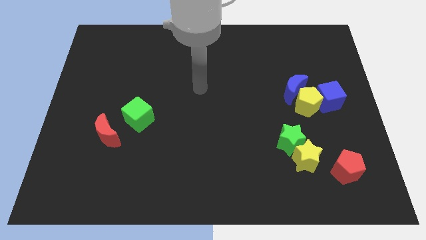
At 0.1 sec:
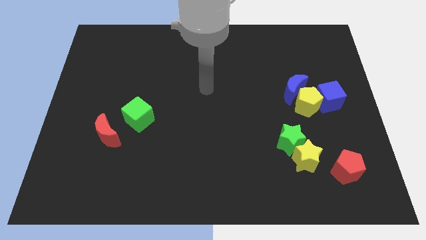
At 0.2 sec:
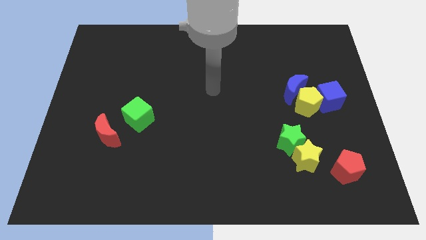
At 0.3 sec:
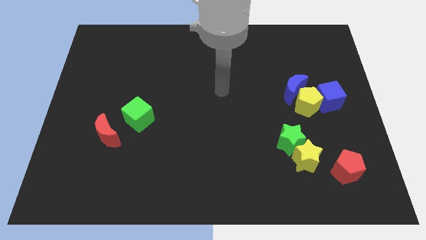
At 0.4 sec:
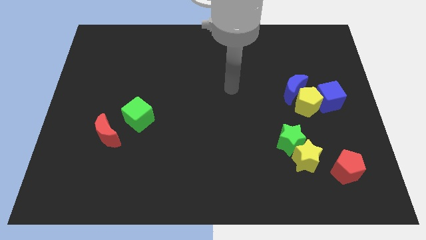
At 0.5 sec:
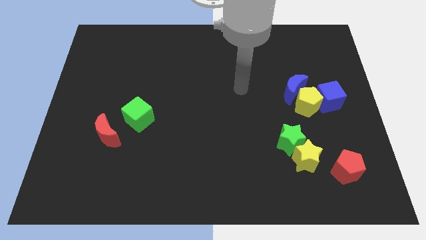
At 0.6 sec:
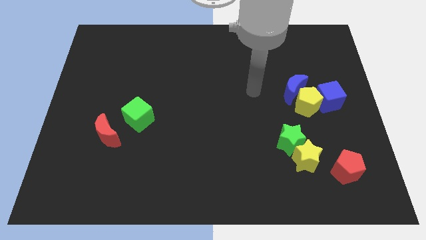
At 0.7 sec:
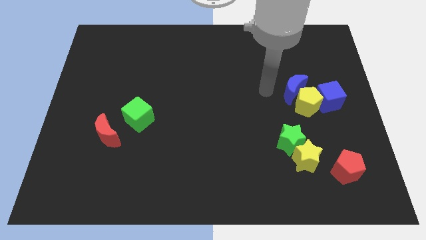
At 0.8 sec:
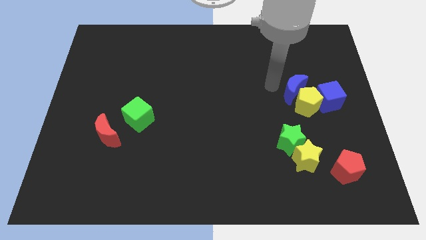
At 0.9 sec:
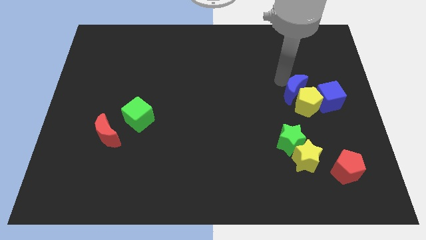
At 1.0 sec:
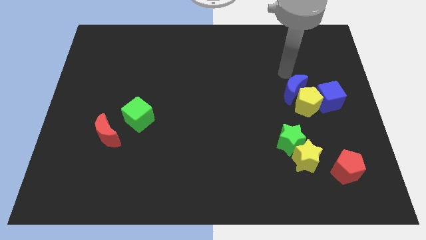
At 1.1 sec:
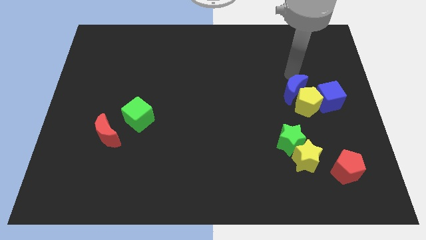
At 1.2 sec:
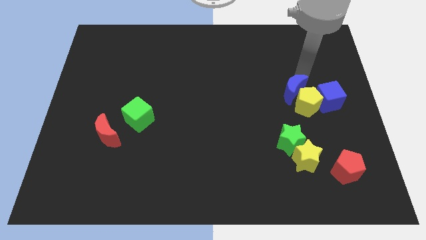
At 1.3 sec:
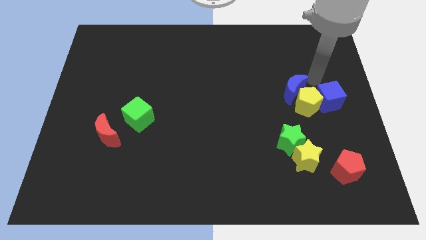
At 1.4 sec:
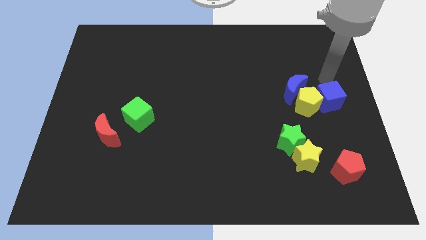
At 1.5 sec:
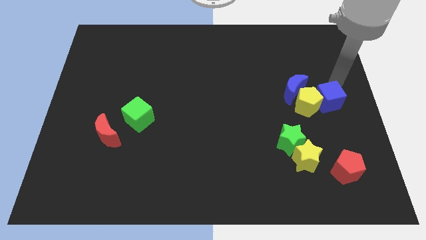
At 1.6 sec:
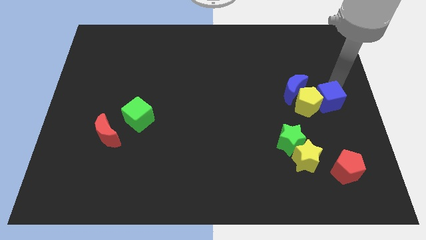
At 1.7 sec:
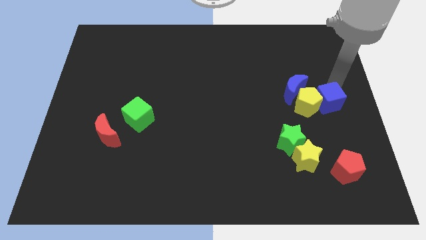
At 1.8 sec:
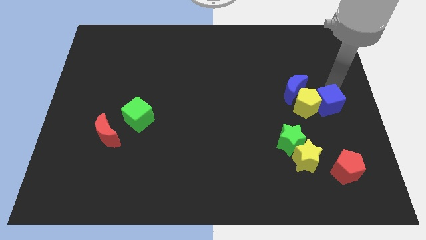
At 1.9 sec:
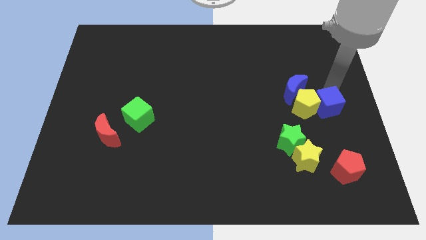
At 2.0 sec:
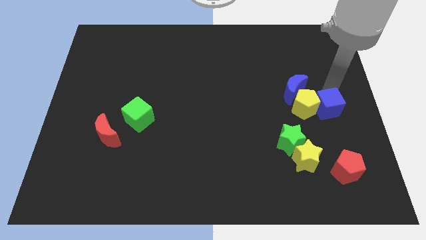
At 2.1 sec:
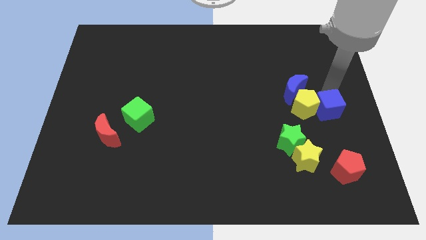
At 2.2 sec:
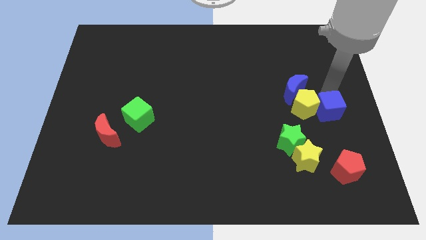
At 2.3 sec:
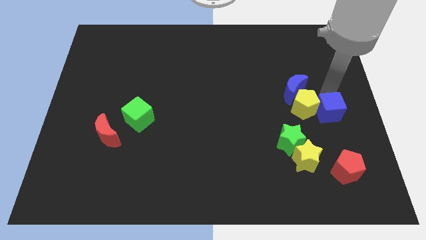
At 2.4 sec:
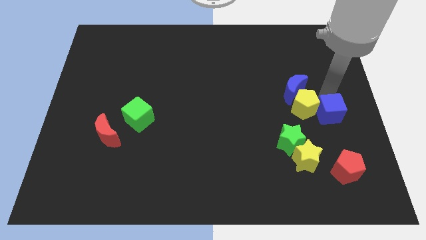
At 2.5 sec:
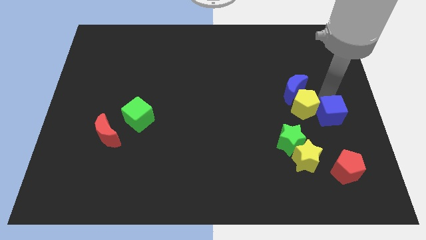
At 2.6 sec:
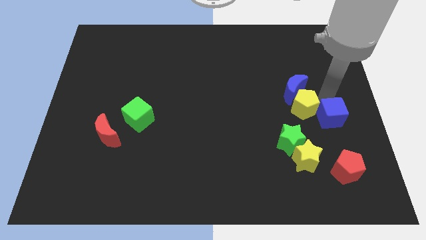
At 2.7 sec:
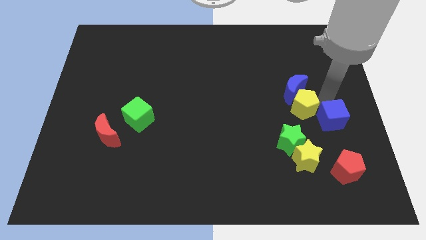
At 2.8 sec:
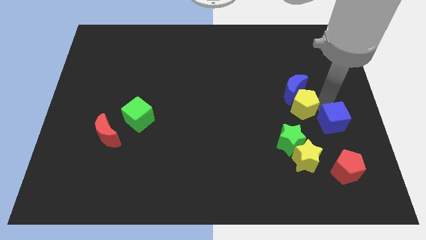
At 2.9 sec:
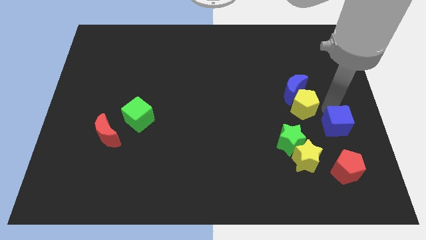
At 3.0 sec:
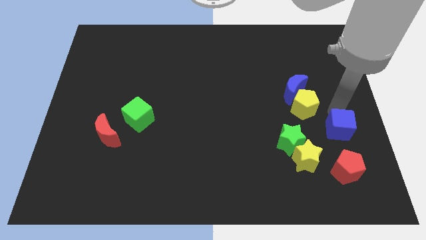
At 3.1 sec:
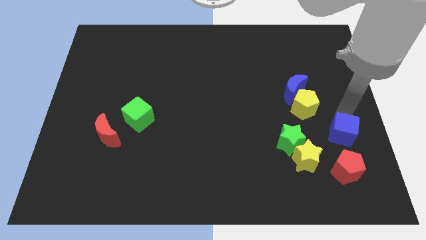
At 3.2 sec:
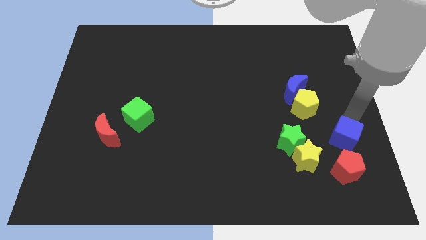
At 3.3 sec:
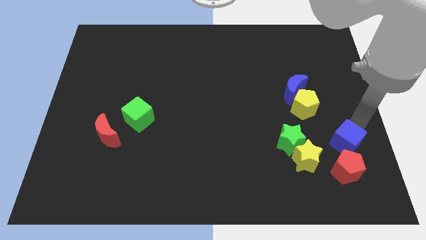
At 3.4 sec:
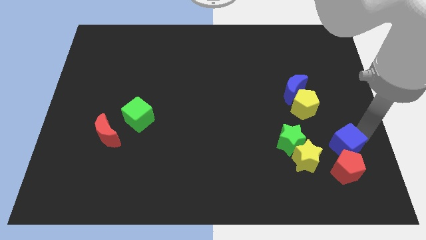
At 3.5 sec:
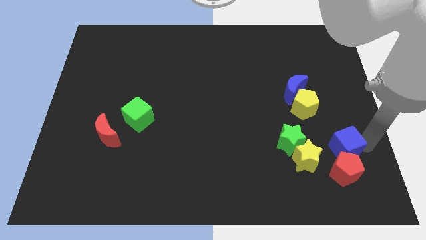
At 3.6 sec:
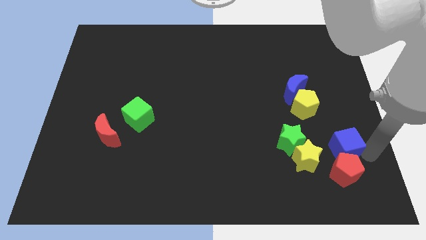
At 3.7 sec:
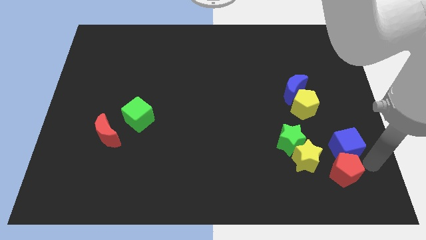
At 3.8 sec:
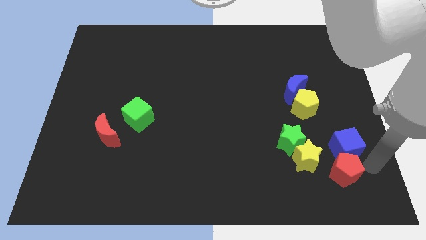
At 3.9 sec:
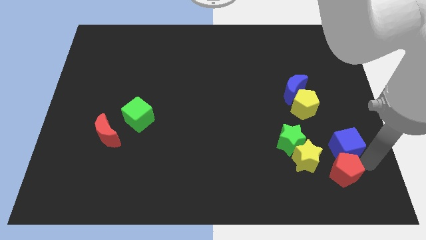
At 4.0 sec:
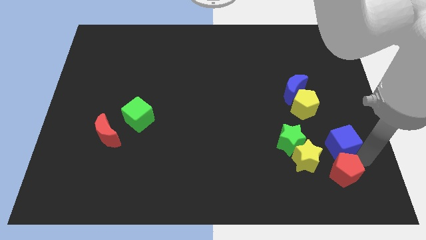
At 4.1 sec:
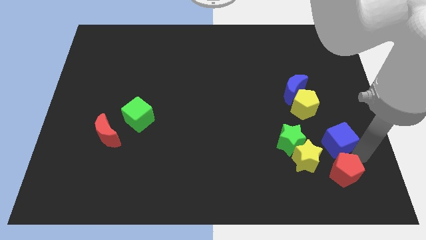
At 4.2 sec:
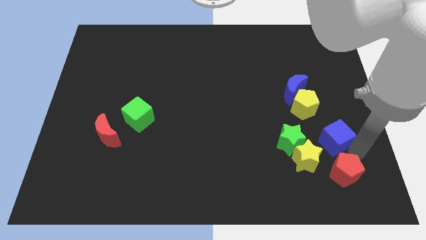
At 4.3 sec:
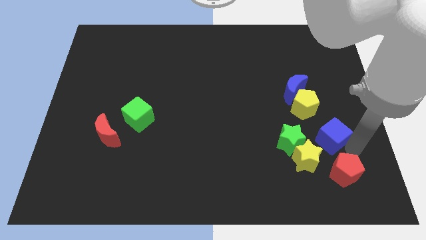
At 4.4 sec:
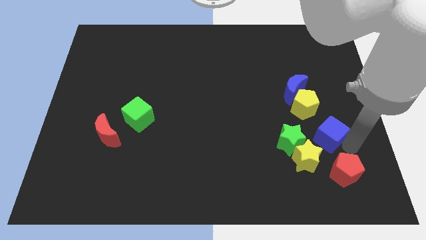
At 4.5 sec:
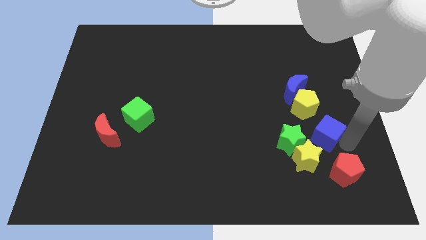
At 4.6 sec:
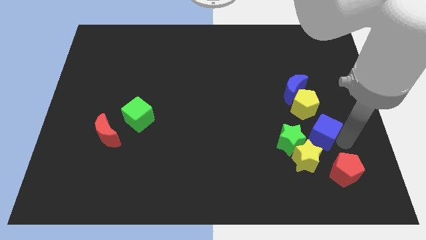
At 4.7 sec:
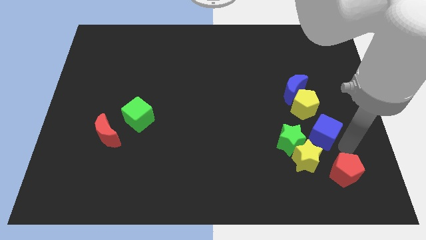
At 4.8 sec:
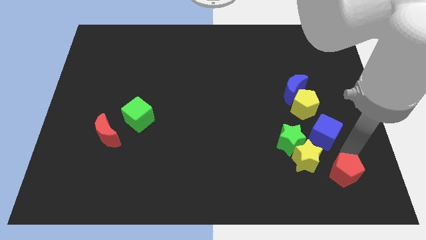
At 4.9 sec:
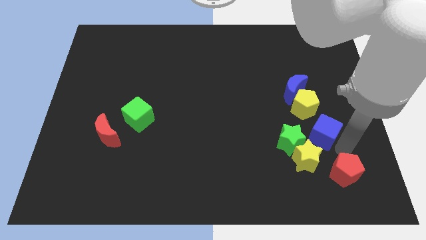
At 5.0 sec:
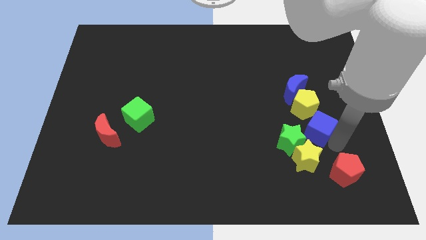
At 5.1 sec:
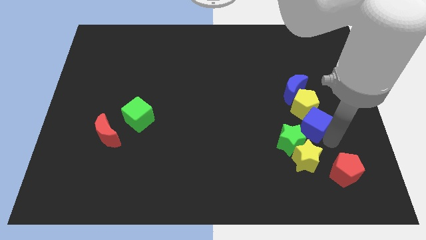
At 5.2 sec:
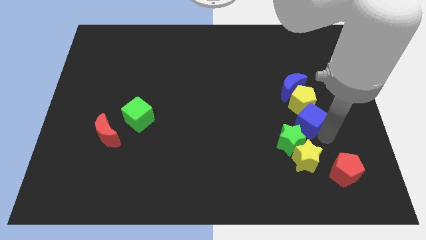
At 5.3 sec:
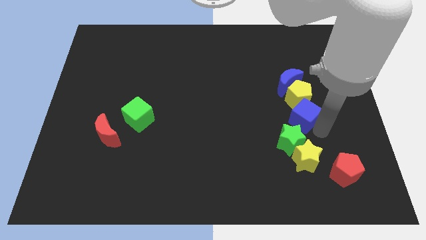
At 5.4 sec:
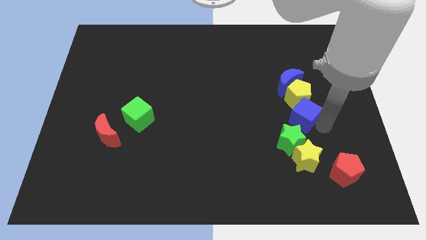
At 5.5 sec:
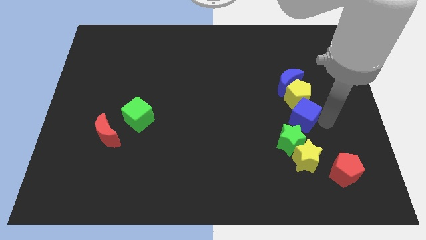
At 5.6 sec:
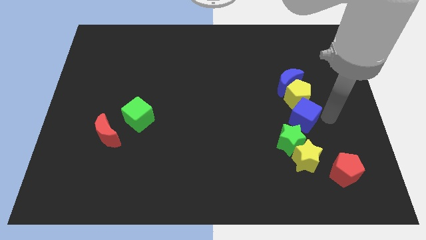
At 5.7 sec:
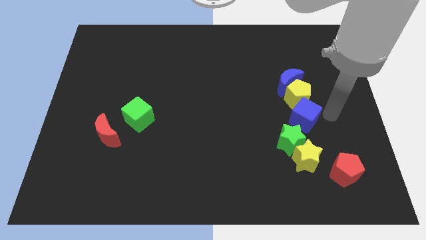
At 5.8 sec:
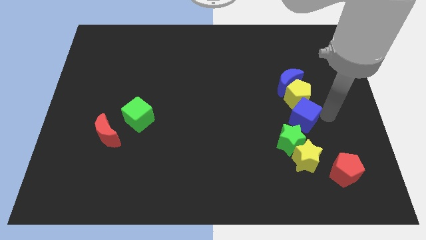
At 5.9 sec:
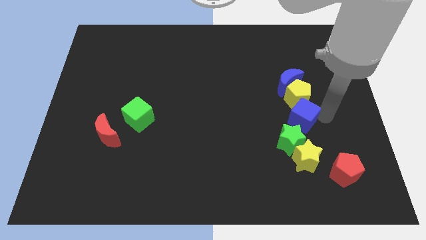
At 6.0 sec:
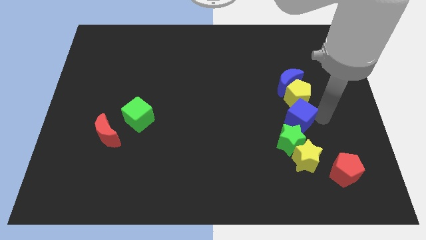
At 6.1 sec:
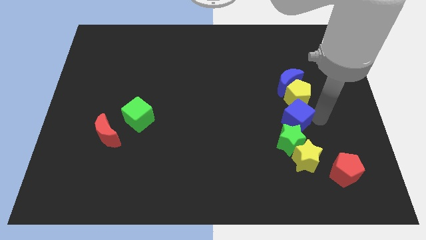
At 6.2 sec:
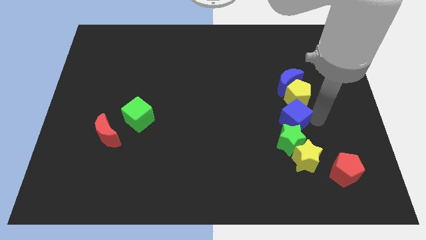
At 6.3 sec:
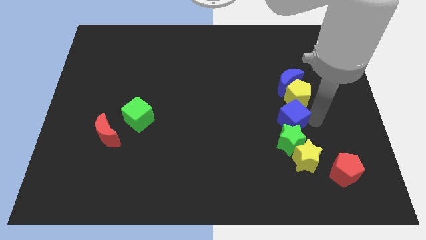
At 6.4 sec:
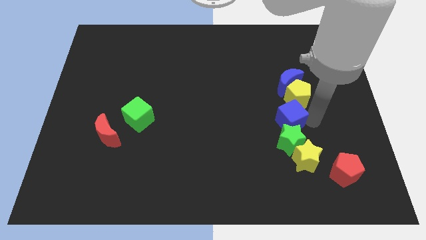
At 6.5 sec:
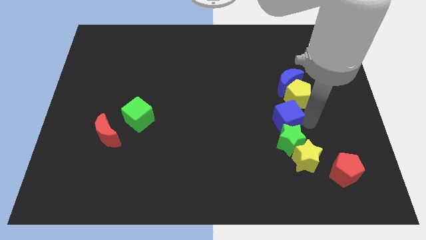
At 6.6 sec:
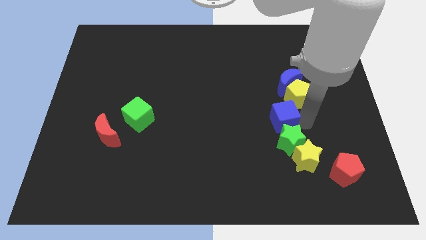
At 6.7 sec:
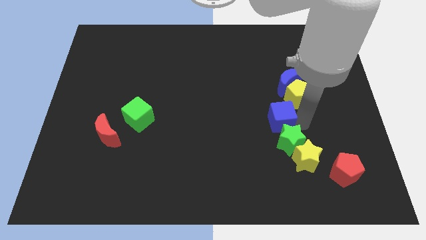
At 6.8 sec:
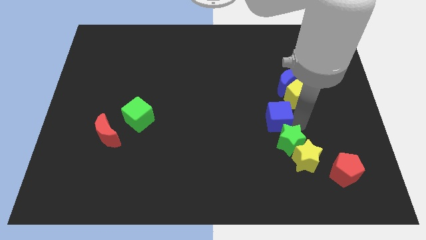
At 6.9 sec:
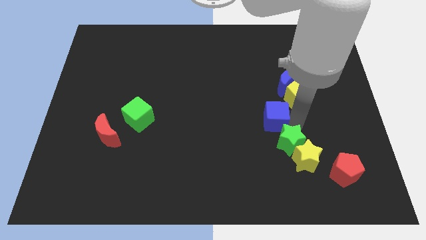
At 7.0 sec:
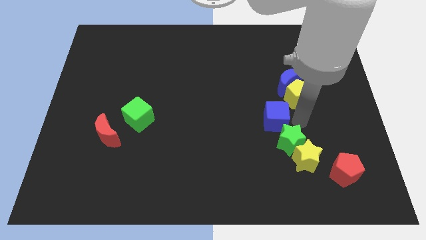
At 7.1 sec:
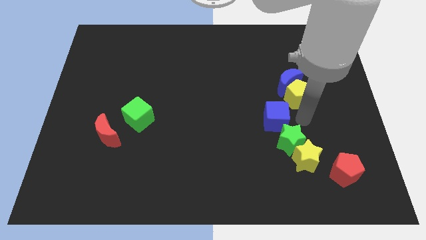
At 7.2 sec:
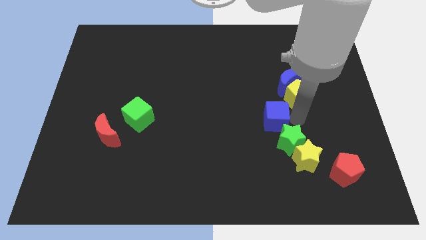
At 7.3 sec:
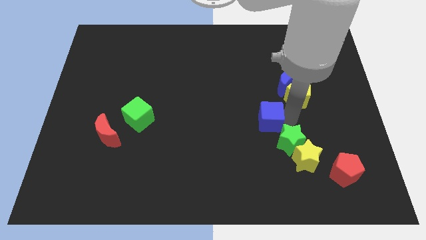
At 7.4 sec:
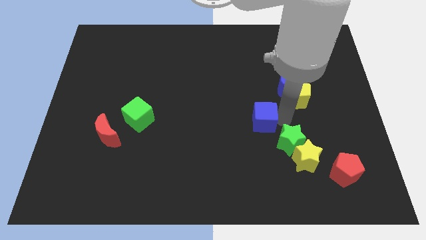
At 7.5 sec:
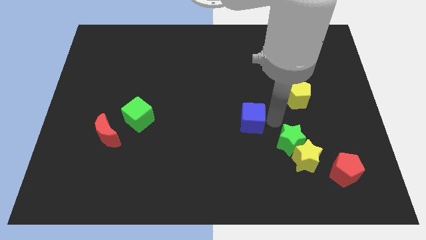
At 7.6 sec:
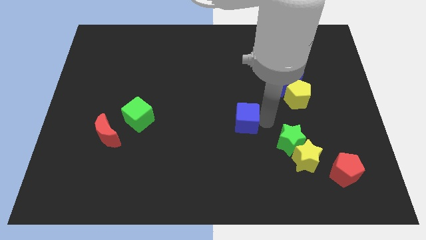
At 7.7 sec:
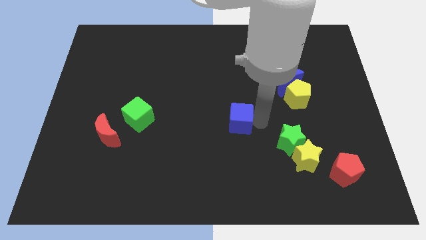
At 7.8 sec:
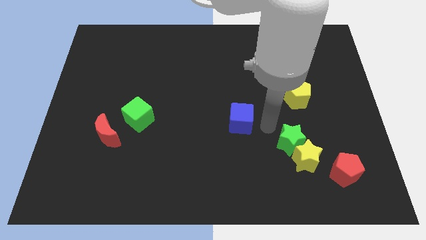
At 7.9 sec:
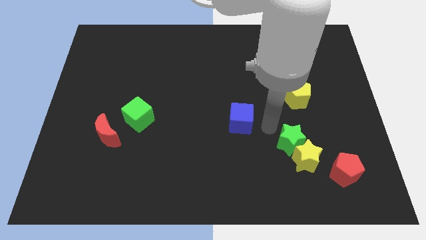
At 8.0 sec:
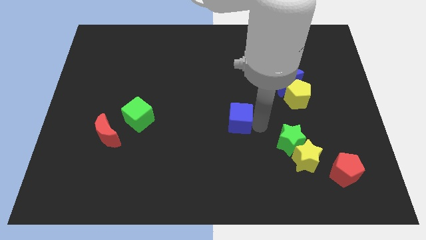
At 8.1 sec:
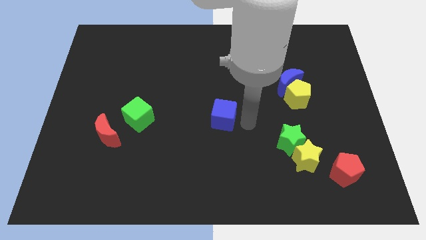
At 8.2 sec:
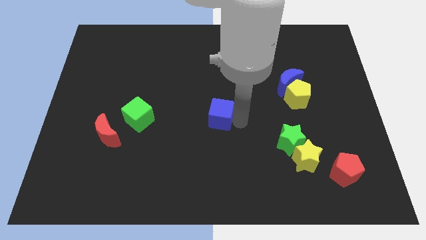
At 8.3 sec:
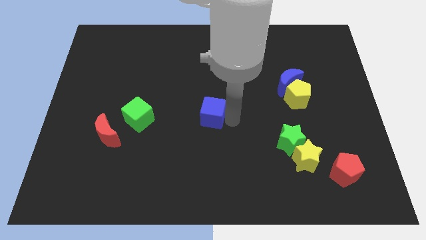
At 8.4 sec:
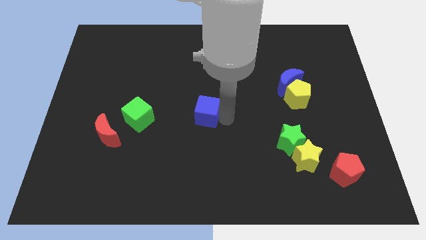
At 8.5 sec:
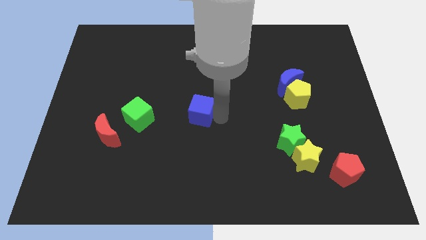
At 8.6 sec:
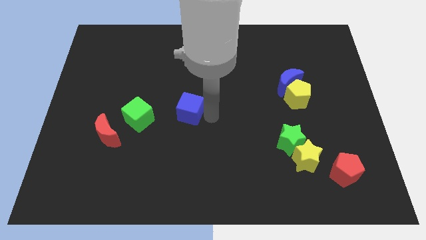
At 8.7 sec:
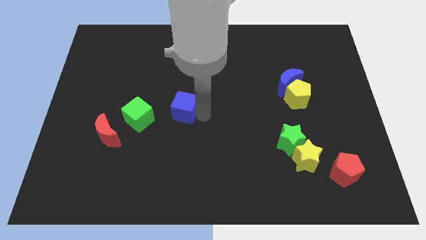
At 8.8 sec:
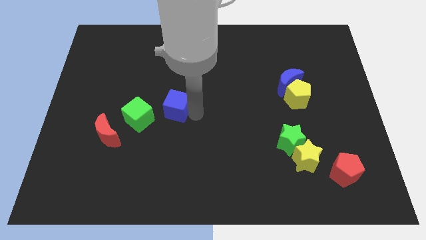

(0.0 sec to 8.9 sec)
move the blue cube to the top right side of the green cube
